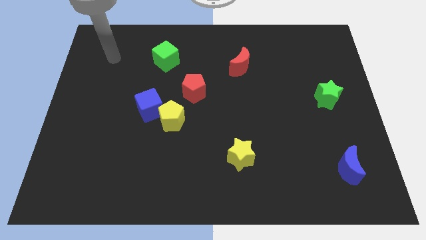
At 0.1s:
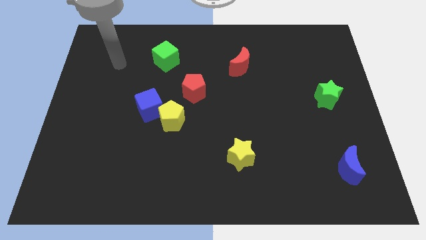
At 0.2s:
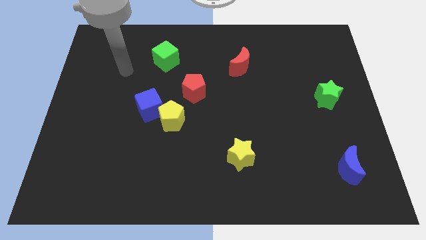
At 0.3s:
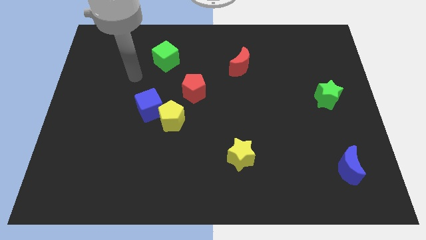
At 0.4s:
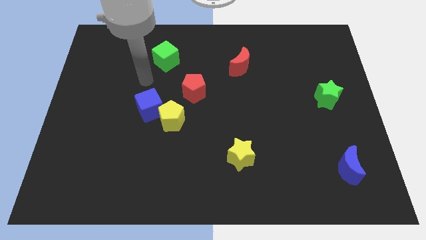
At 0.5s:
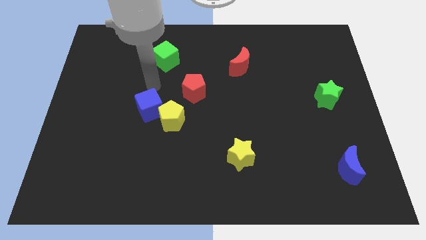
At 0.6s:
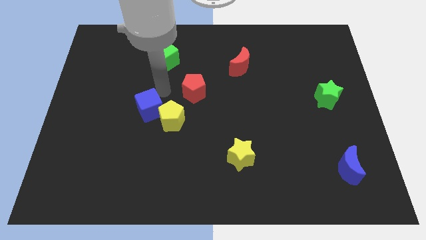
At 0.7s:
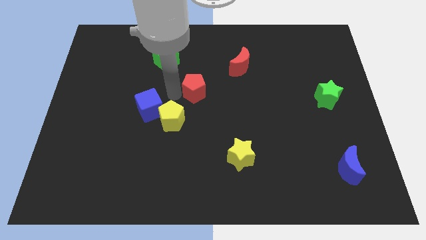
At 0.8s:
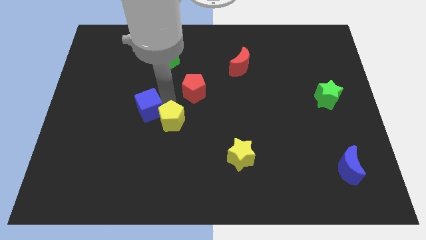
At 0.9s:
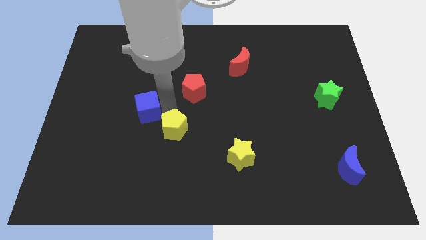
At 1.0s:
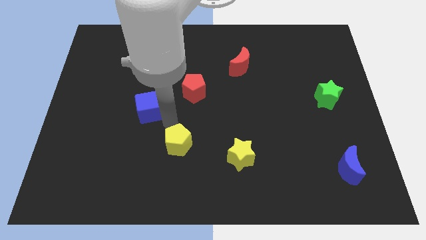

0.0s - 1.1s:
separate the blue cube from the yellow pentagon

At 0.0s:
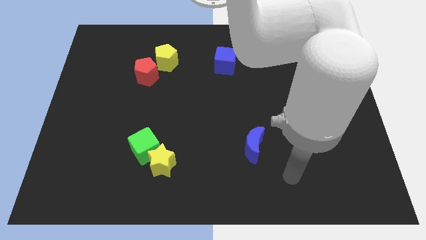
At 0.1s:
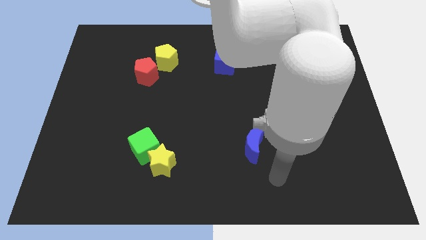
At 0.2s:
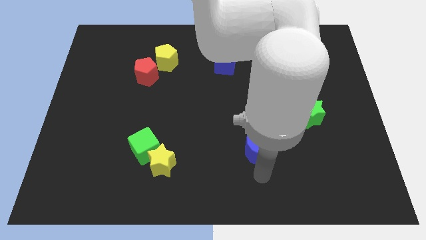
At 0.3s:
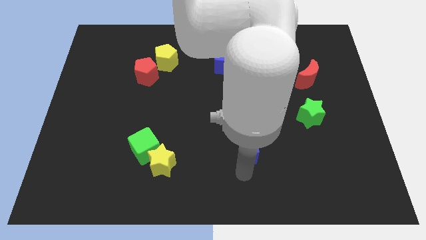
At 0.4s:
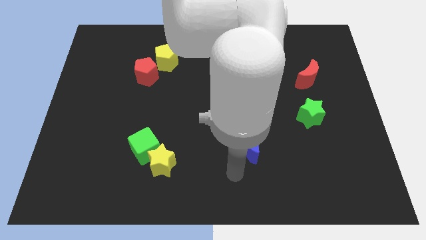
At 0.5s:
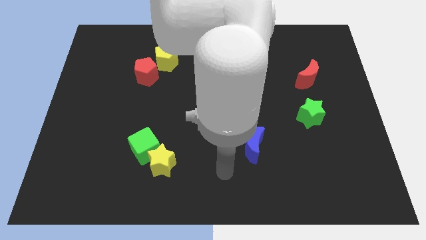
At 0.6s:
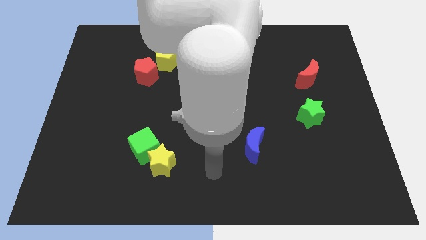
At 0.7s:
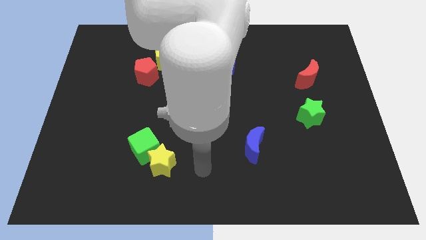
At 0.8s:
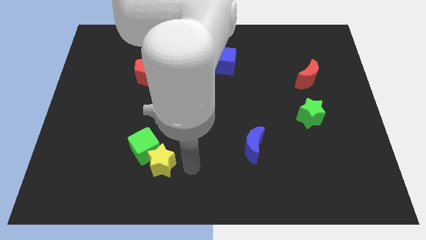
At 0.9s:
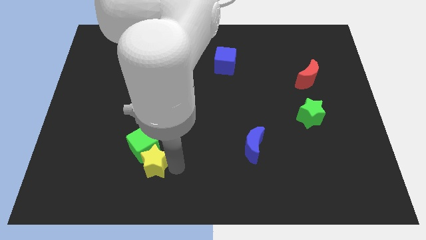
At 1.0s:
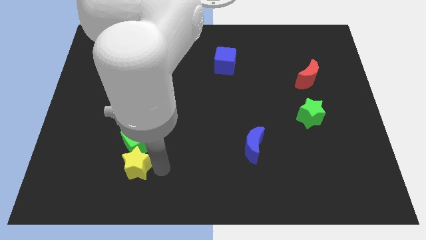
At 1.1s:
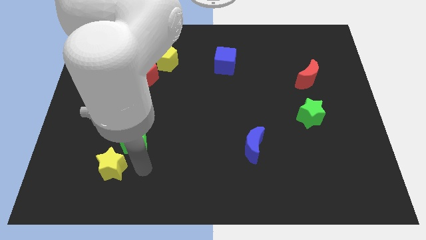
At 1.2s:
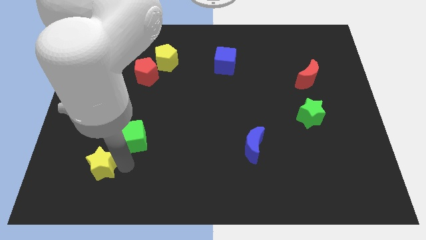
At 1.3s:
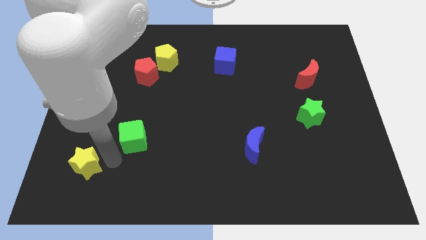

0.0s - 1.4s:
pull the green cube apart from the yellow star

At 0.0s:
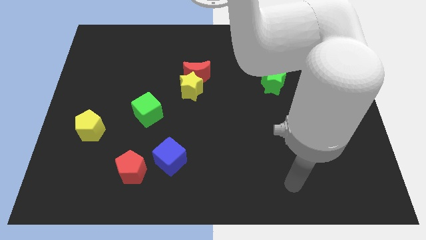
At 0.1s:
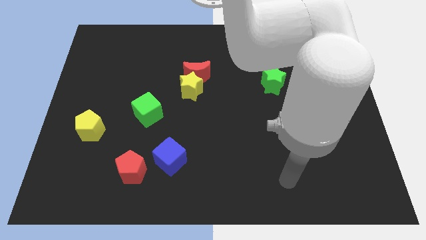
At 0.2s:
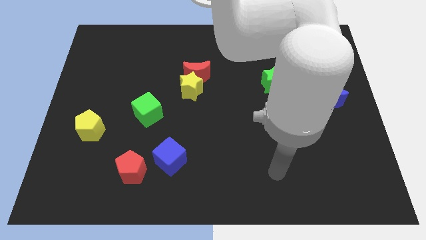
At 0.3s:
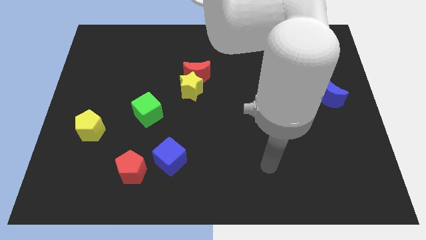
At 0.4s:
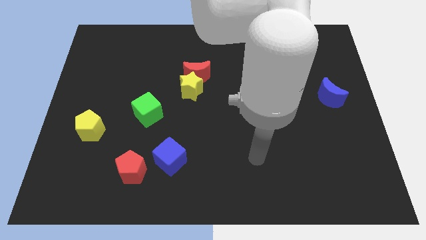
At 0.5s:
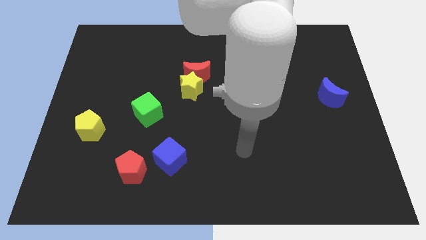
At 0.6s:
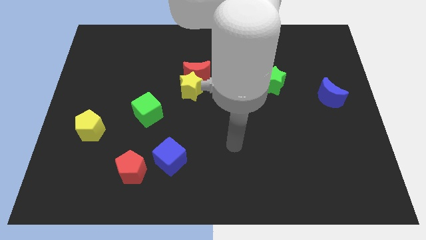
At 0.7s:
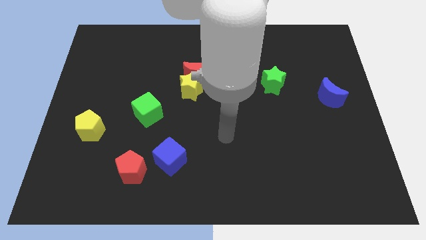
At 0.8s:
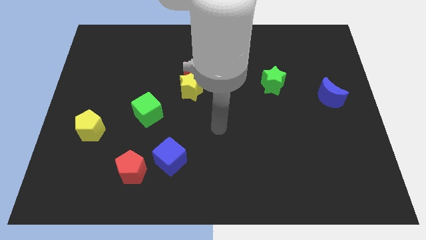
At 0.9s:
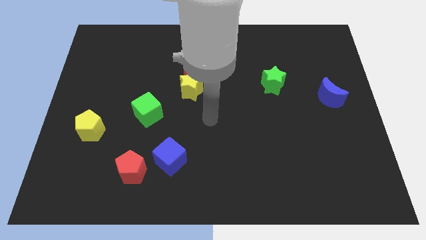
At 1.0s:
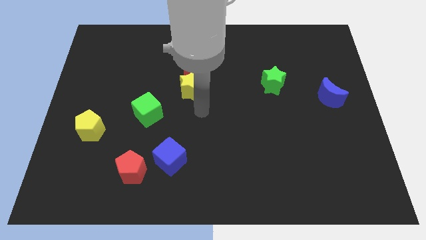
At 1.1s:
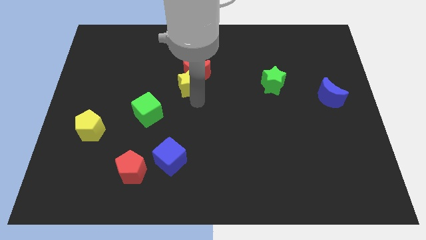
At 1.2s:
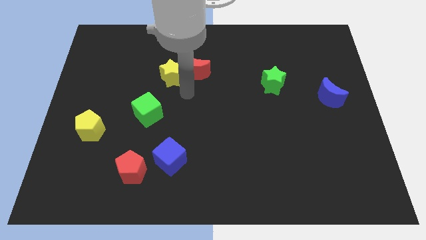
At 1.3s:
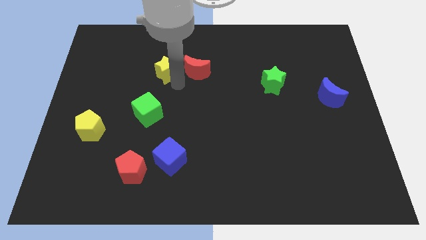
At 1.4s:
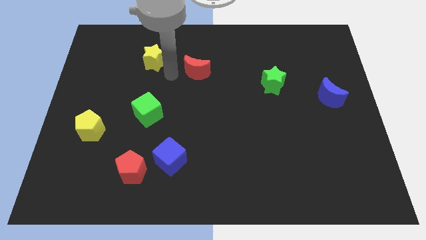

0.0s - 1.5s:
separate the red moon from the yellow star

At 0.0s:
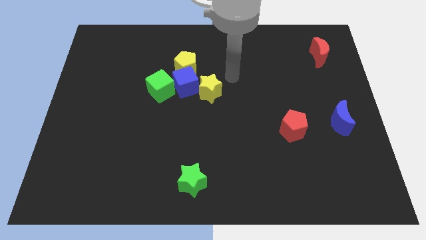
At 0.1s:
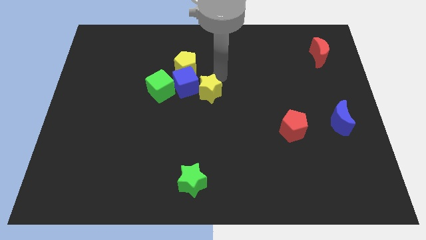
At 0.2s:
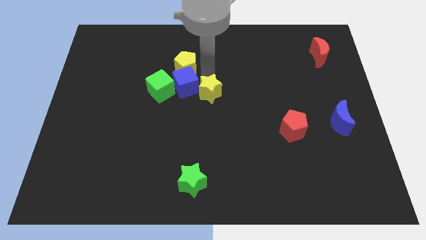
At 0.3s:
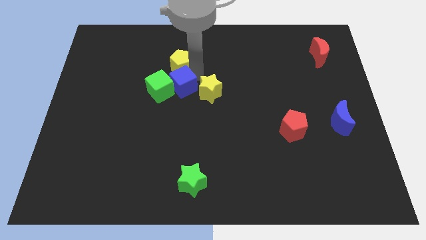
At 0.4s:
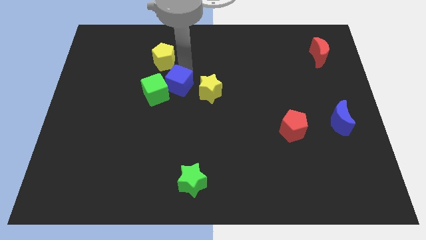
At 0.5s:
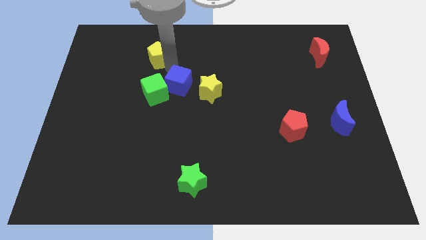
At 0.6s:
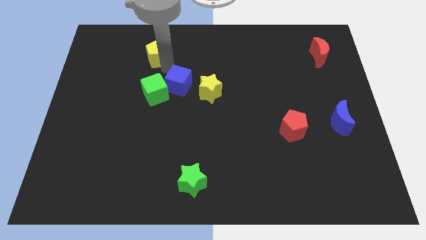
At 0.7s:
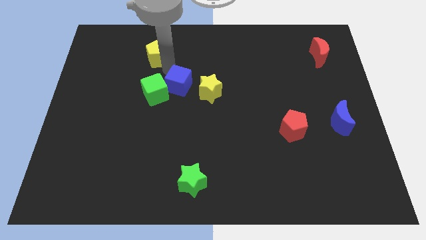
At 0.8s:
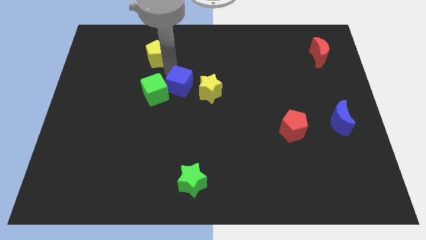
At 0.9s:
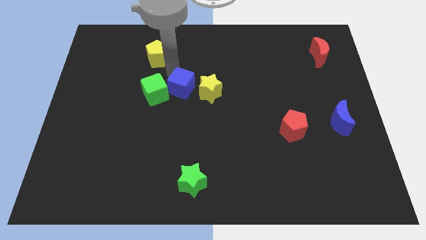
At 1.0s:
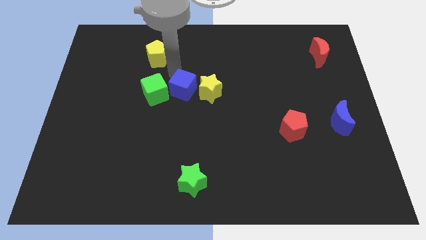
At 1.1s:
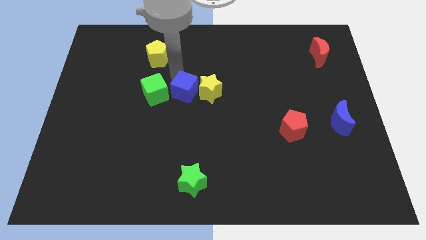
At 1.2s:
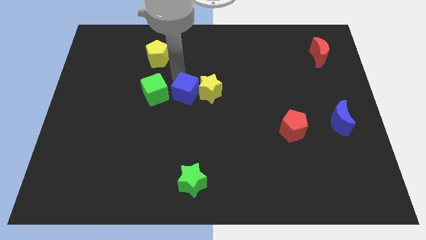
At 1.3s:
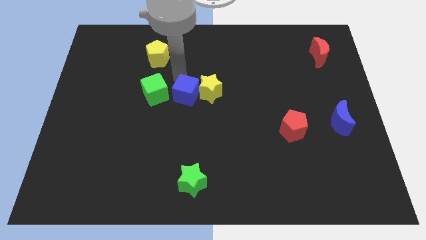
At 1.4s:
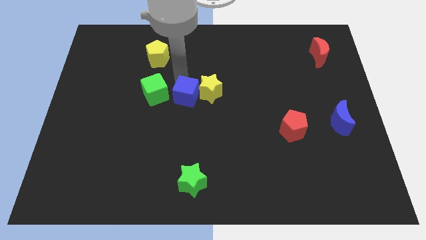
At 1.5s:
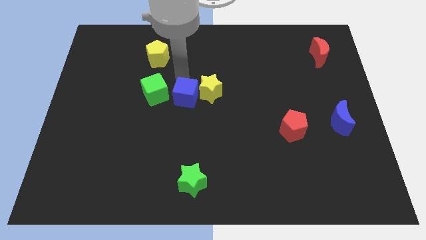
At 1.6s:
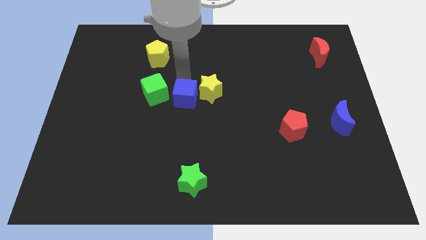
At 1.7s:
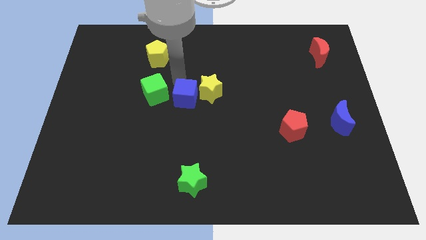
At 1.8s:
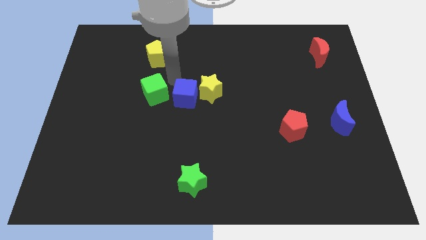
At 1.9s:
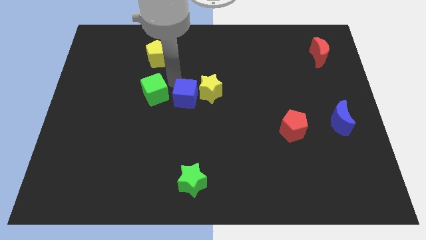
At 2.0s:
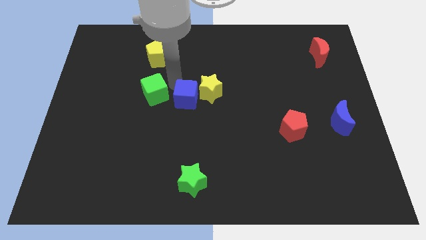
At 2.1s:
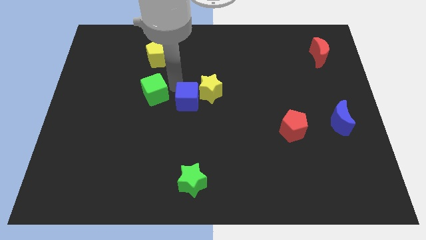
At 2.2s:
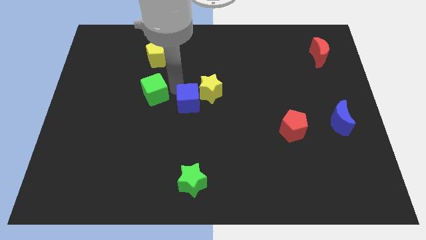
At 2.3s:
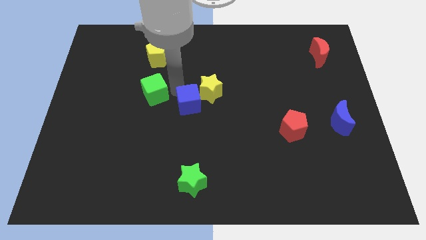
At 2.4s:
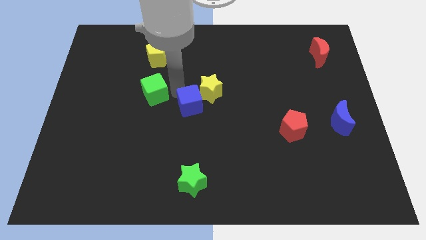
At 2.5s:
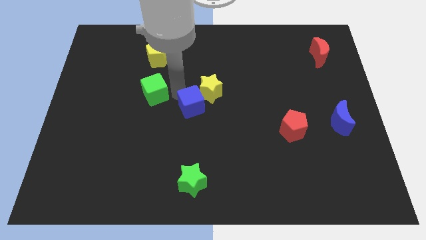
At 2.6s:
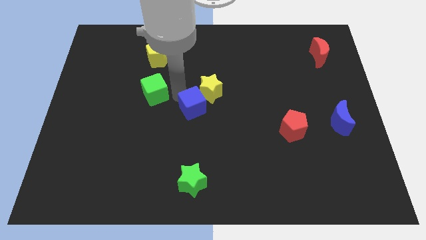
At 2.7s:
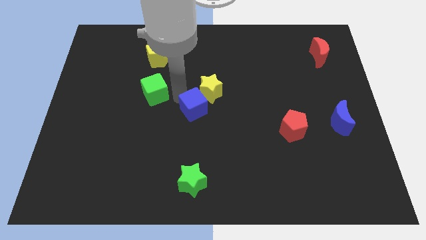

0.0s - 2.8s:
separate the blue cube from the yellow pentagon, yellow star, and green cube

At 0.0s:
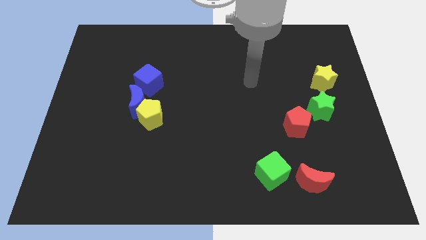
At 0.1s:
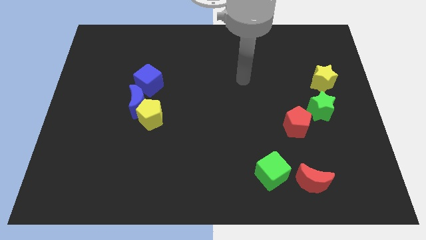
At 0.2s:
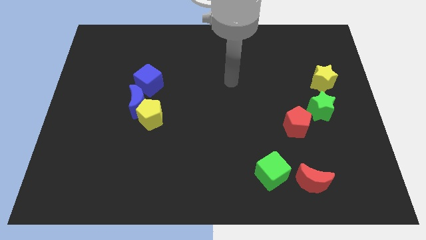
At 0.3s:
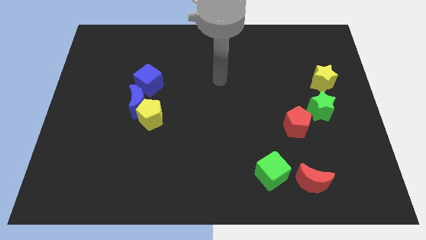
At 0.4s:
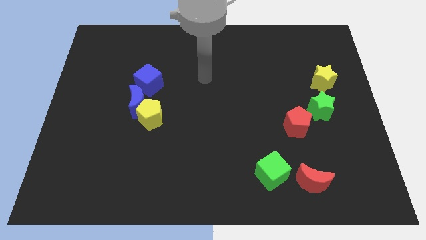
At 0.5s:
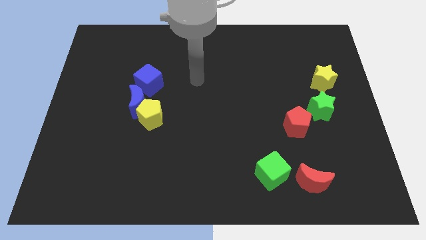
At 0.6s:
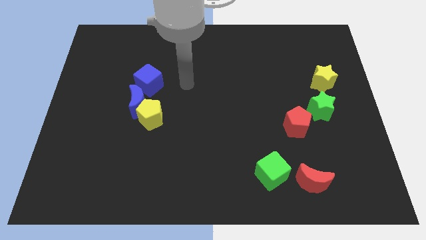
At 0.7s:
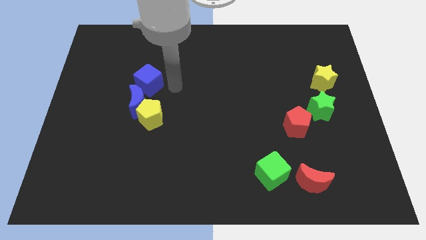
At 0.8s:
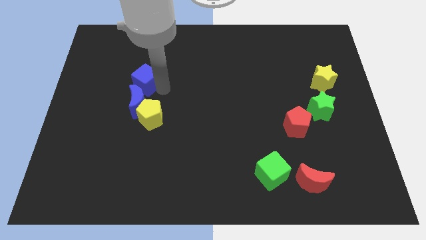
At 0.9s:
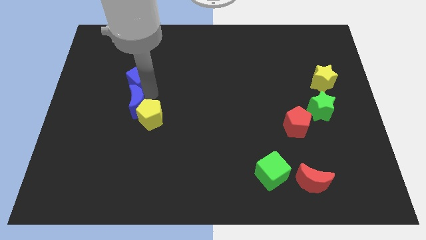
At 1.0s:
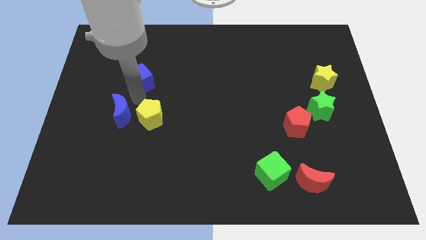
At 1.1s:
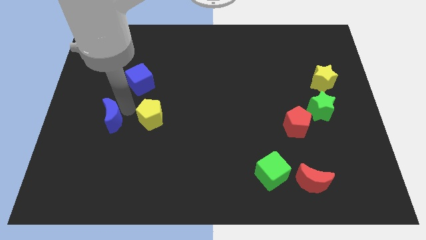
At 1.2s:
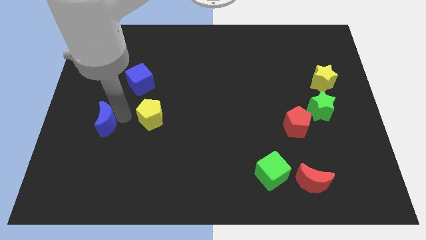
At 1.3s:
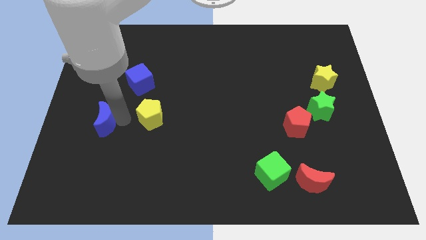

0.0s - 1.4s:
separate the yellow pentagon from the blue moon

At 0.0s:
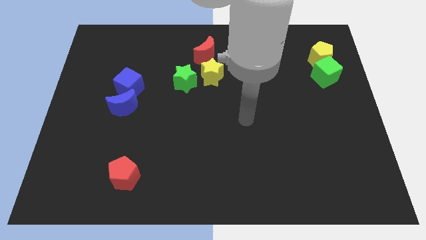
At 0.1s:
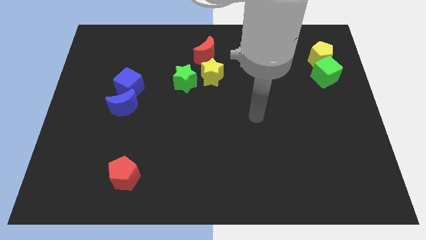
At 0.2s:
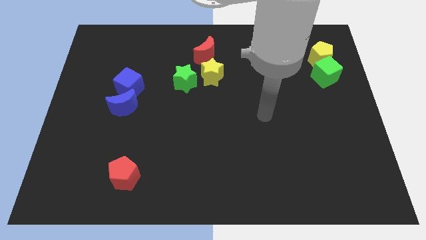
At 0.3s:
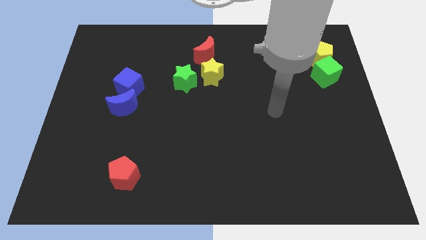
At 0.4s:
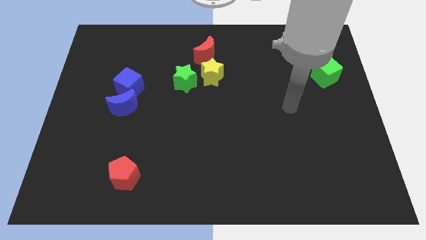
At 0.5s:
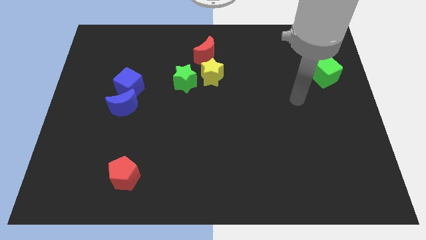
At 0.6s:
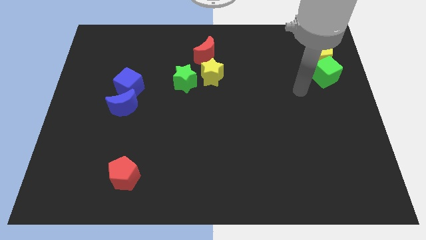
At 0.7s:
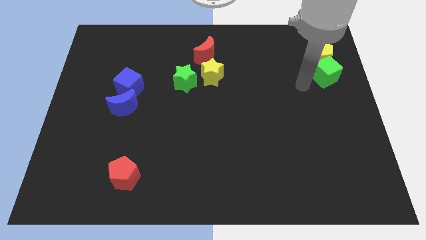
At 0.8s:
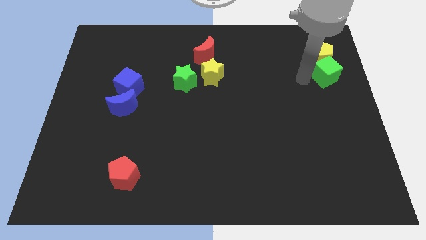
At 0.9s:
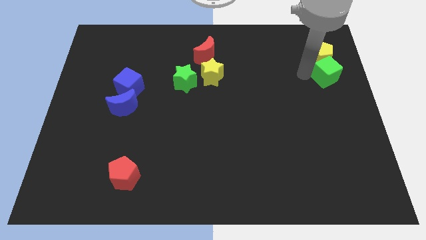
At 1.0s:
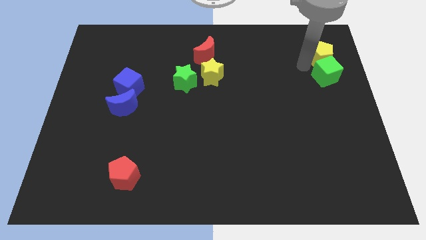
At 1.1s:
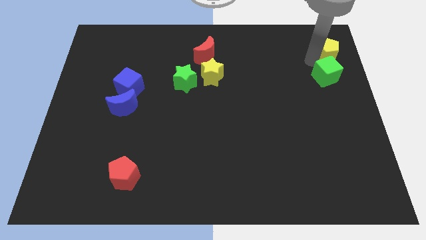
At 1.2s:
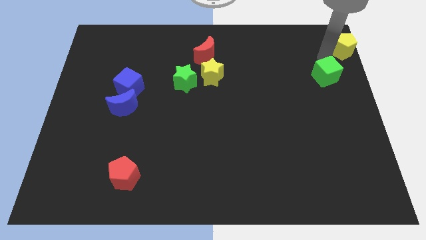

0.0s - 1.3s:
move the green cube away from the yellow pentagon

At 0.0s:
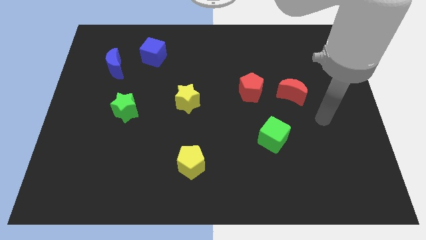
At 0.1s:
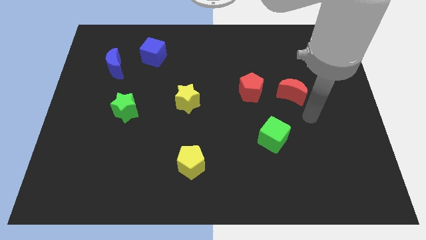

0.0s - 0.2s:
pull the red moon apart from the red pentagon
